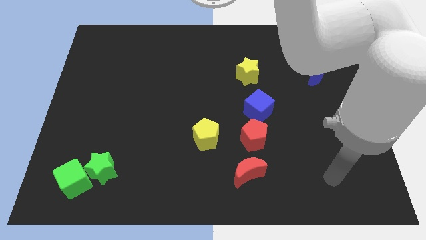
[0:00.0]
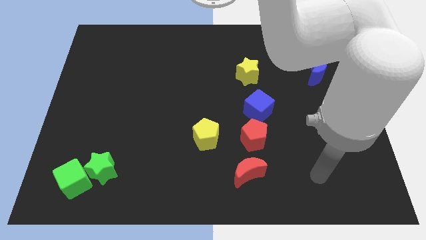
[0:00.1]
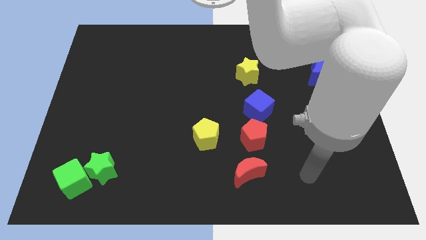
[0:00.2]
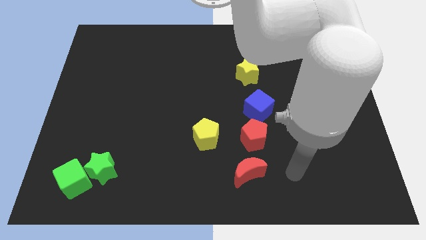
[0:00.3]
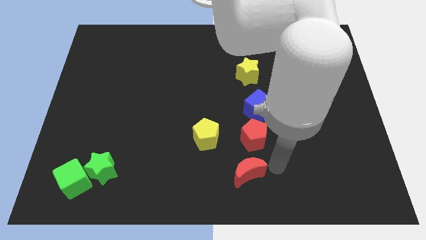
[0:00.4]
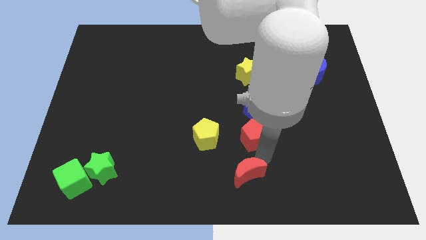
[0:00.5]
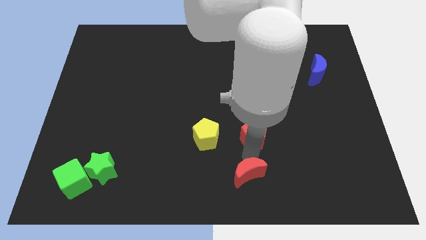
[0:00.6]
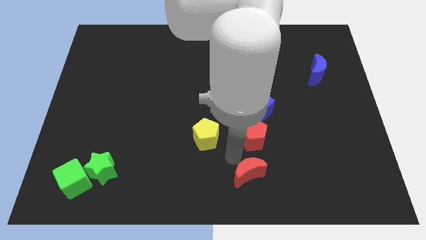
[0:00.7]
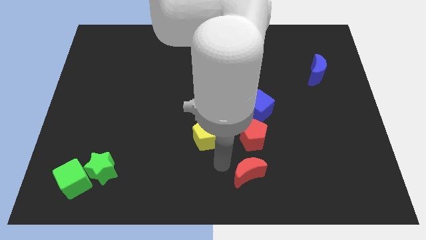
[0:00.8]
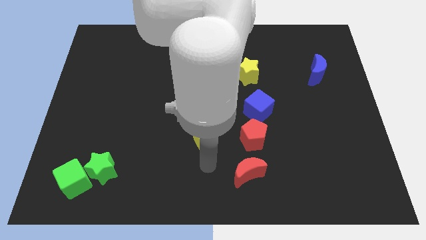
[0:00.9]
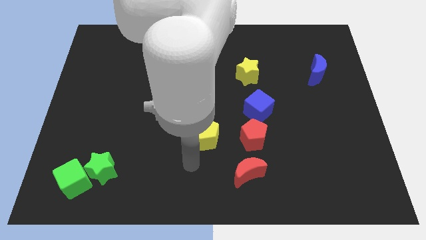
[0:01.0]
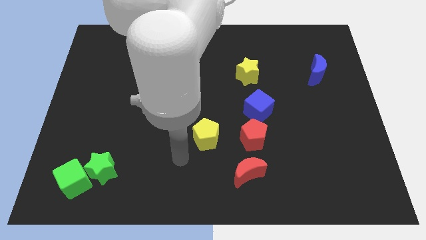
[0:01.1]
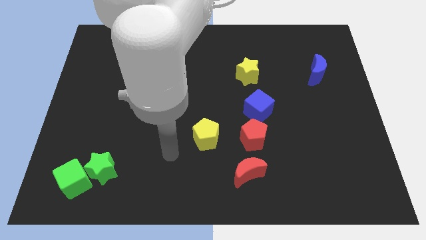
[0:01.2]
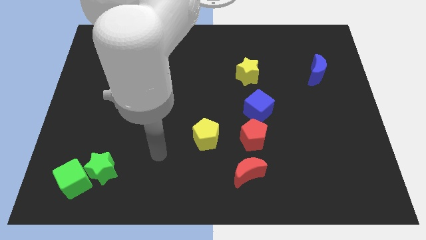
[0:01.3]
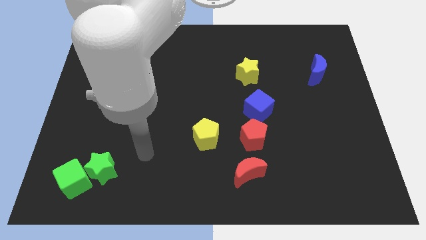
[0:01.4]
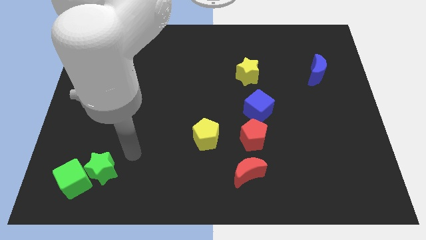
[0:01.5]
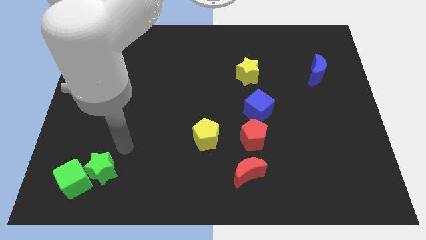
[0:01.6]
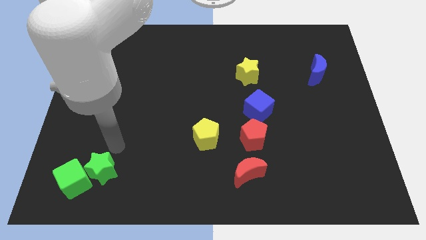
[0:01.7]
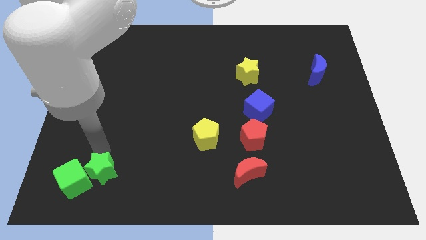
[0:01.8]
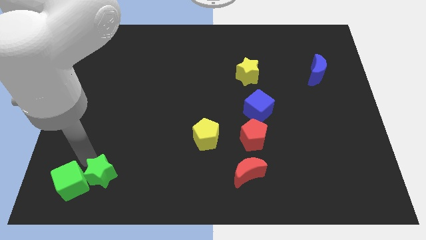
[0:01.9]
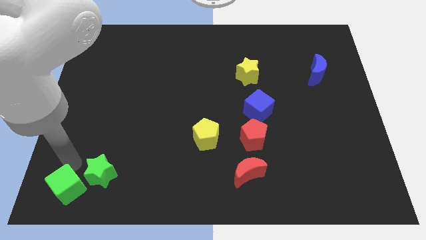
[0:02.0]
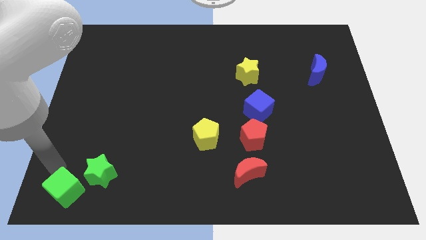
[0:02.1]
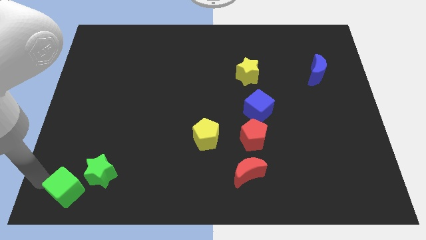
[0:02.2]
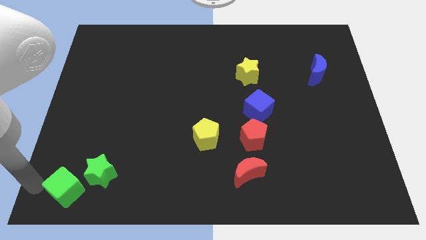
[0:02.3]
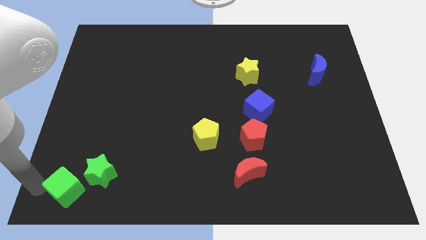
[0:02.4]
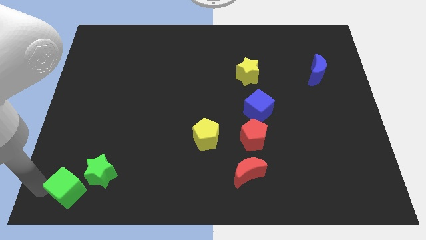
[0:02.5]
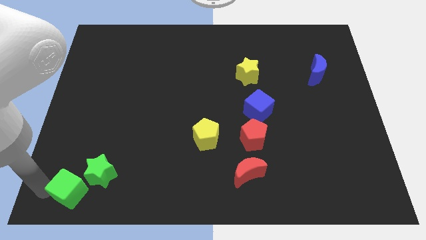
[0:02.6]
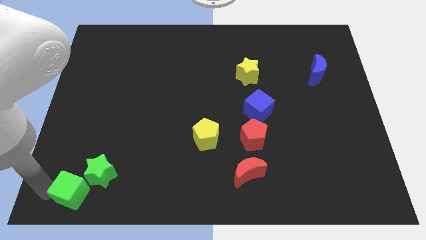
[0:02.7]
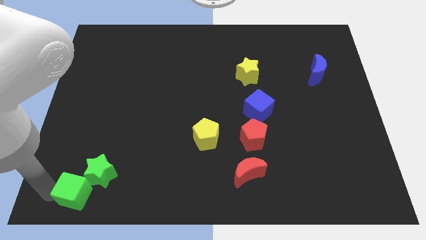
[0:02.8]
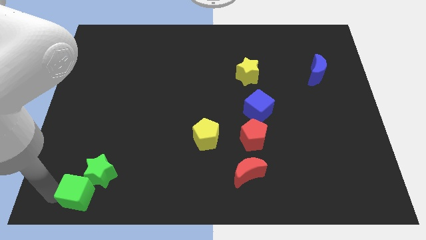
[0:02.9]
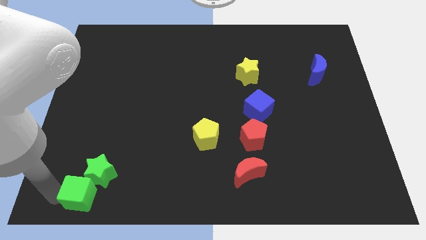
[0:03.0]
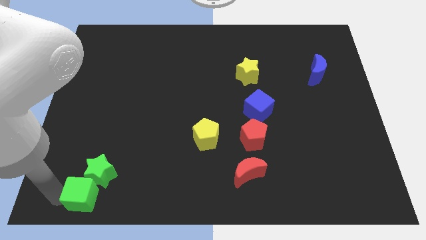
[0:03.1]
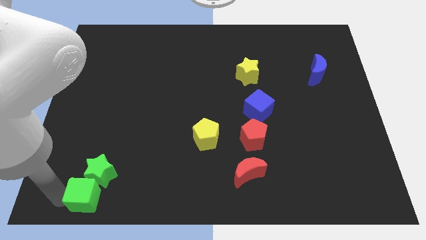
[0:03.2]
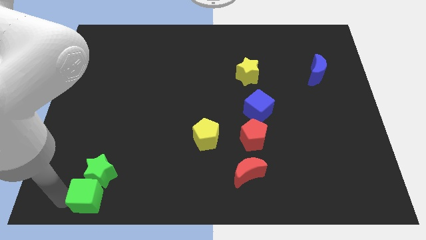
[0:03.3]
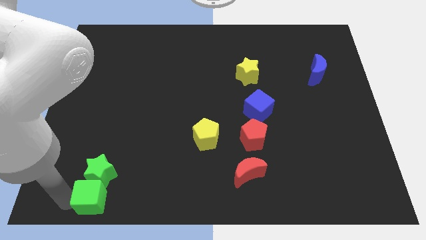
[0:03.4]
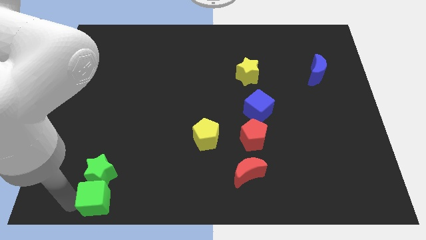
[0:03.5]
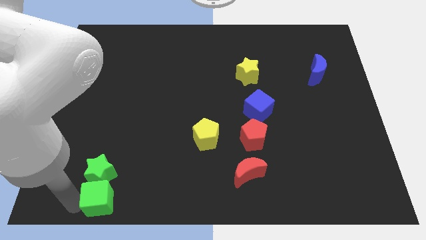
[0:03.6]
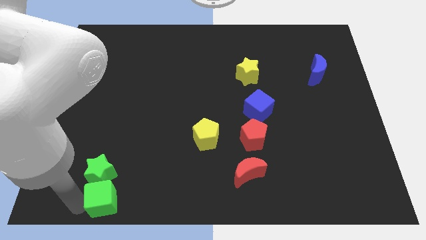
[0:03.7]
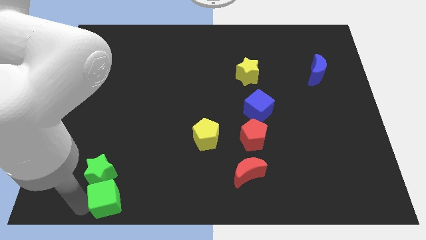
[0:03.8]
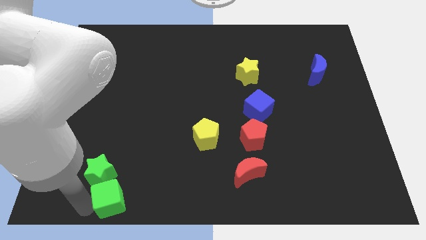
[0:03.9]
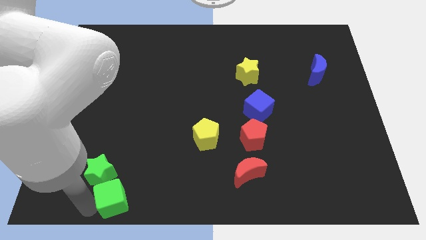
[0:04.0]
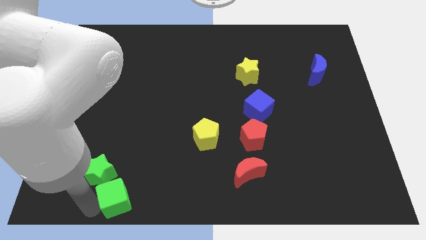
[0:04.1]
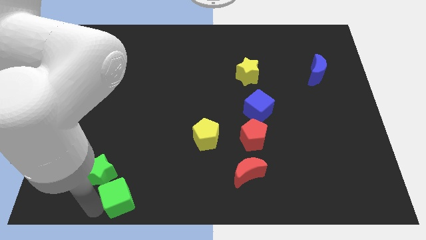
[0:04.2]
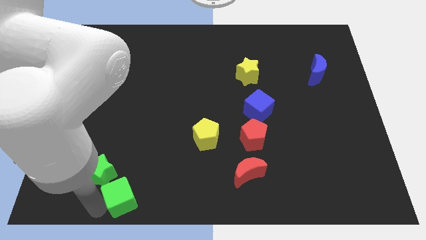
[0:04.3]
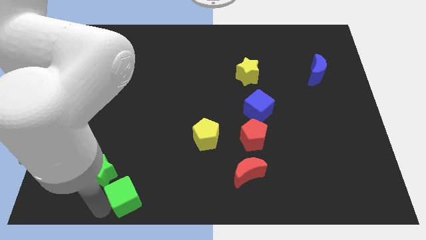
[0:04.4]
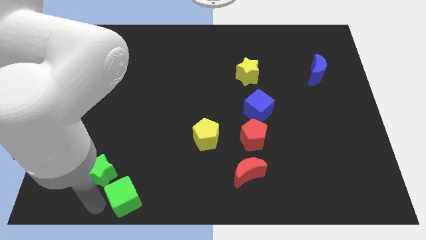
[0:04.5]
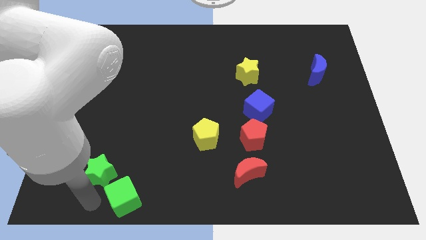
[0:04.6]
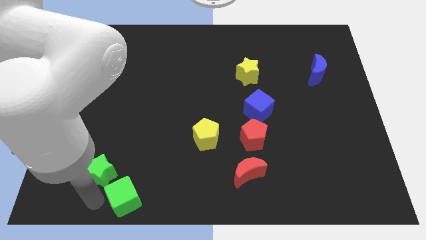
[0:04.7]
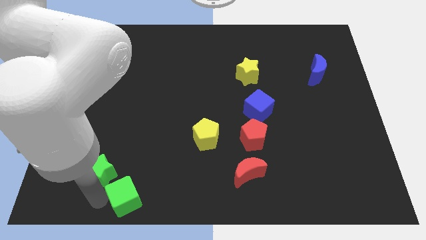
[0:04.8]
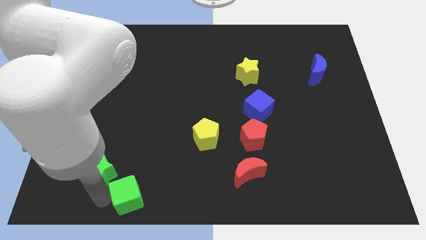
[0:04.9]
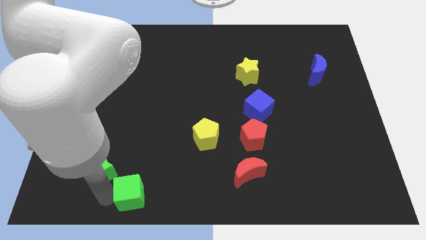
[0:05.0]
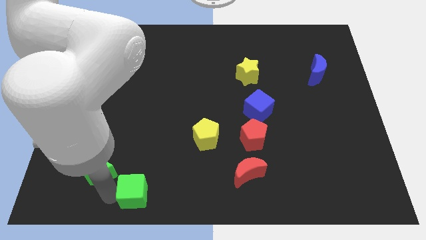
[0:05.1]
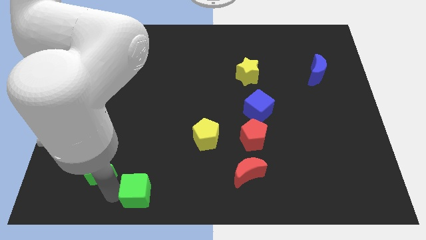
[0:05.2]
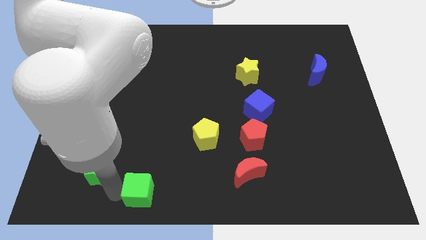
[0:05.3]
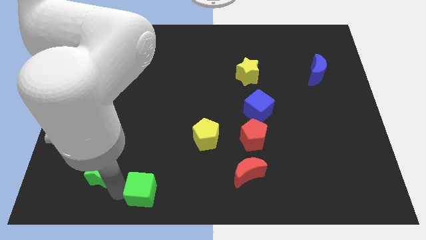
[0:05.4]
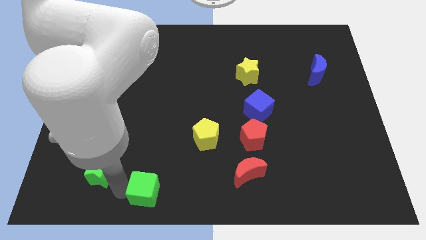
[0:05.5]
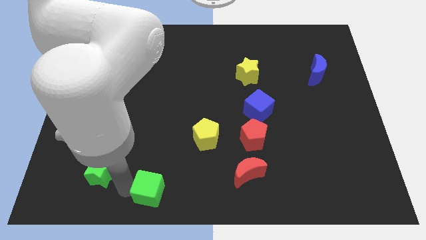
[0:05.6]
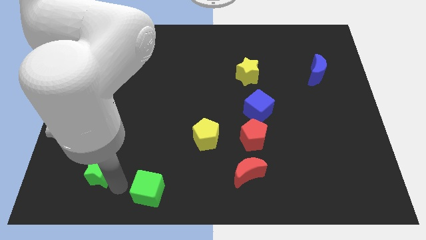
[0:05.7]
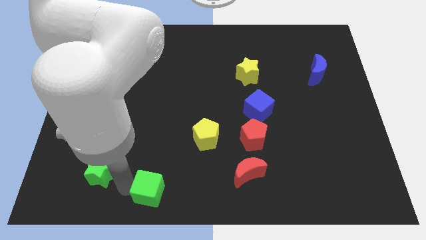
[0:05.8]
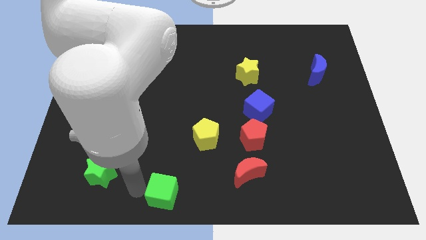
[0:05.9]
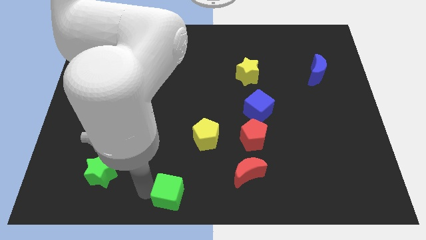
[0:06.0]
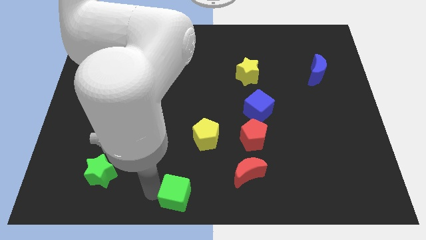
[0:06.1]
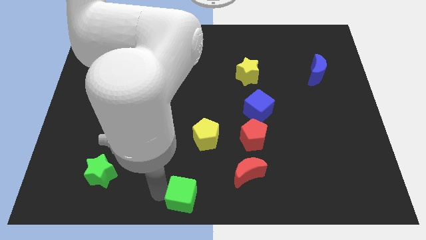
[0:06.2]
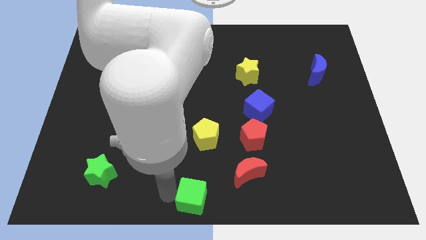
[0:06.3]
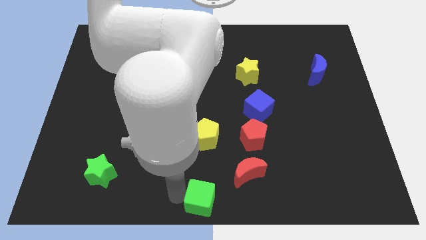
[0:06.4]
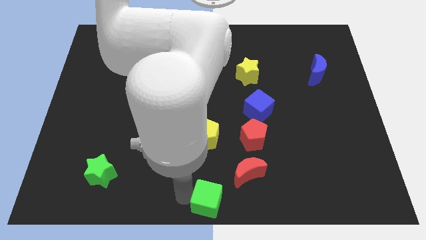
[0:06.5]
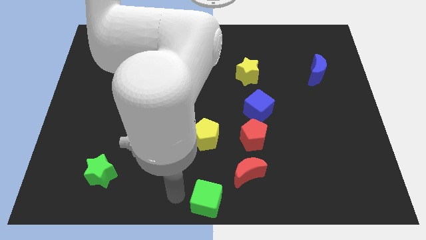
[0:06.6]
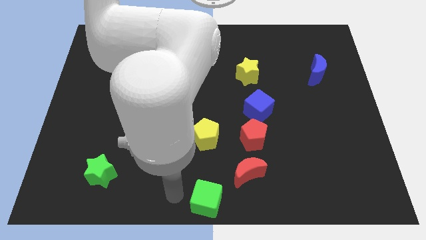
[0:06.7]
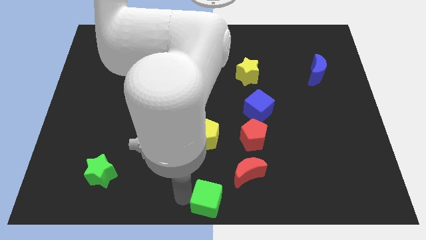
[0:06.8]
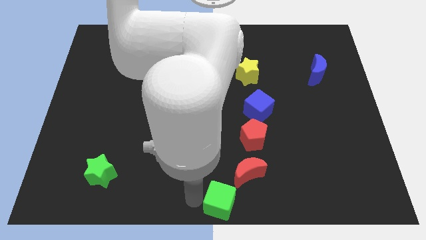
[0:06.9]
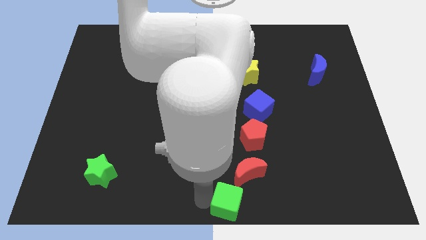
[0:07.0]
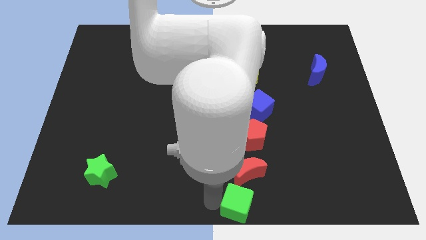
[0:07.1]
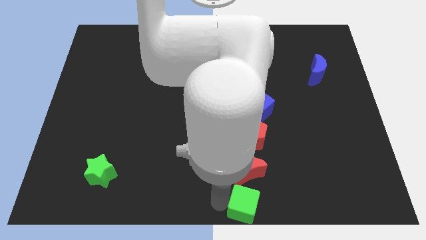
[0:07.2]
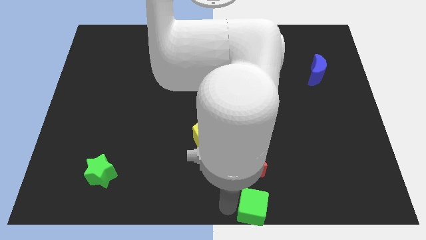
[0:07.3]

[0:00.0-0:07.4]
push the green cube to the bottom side of the red pentagon
